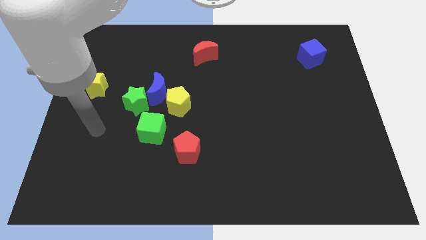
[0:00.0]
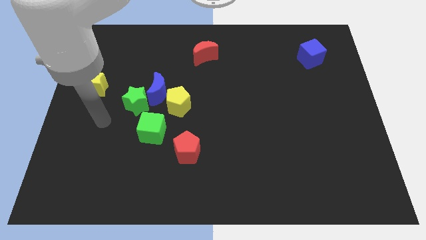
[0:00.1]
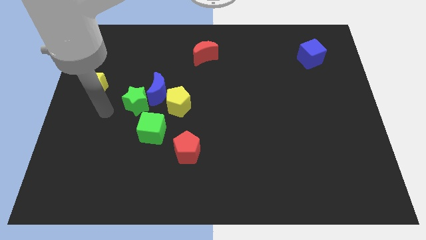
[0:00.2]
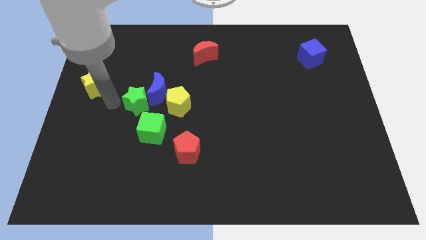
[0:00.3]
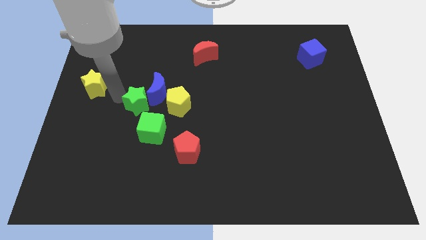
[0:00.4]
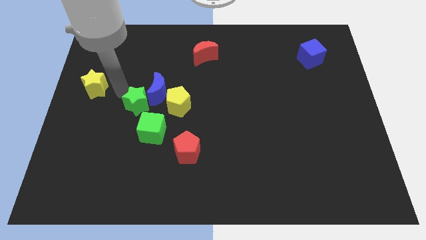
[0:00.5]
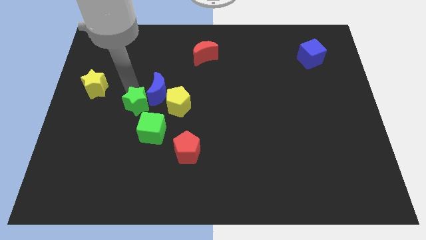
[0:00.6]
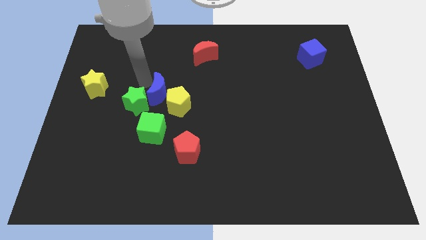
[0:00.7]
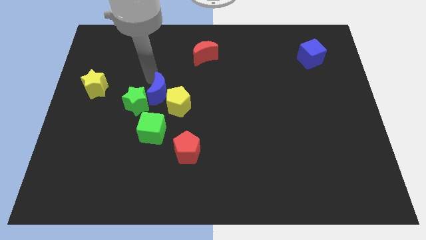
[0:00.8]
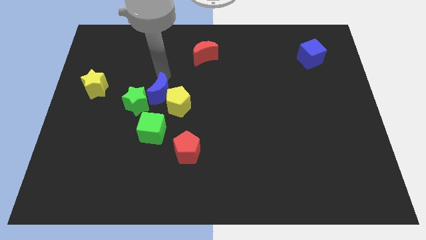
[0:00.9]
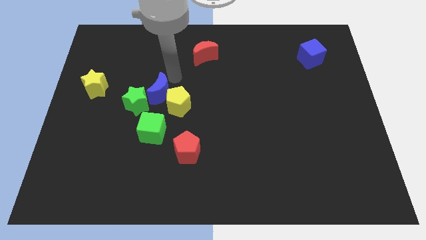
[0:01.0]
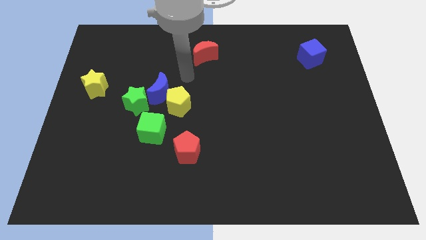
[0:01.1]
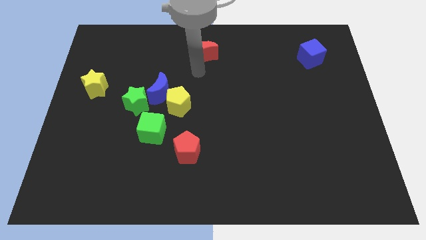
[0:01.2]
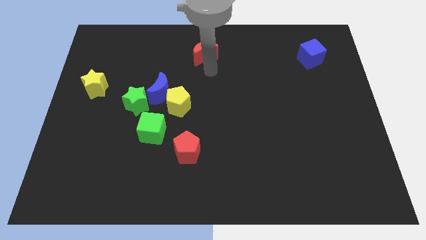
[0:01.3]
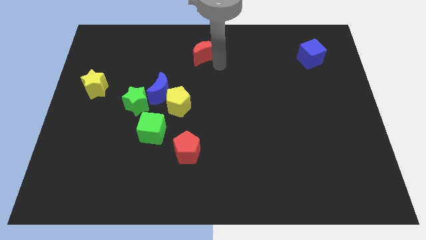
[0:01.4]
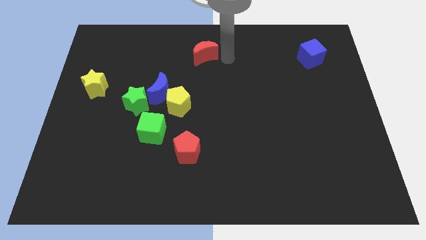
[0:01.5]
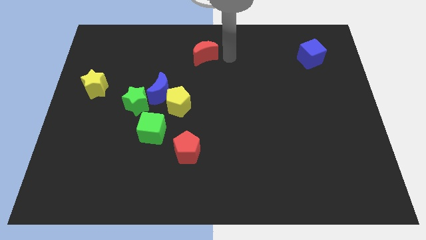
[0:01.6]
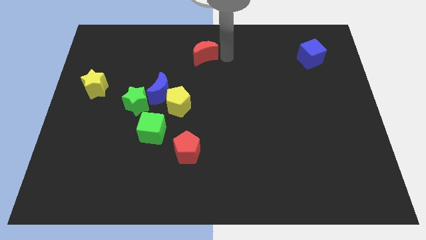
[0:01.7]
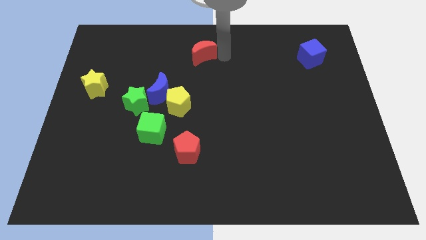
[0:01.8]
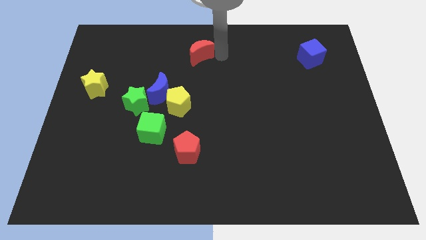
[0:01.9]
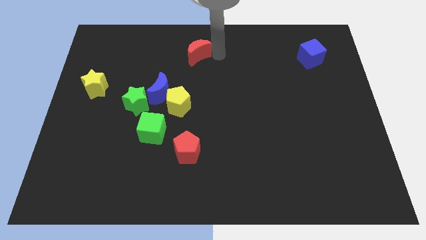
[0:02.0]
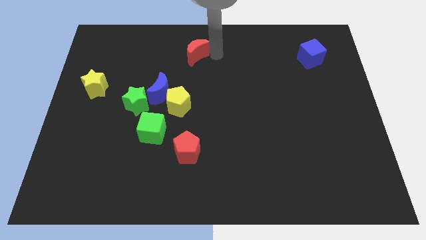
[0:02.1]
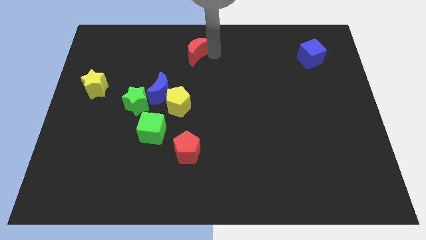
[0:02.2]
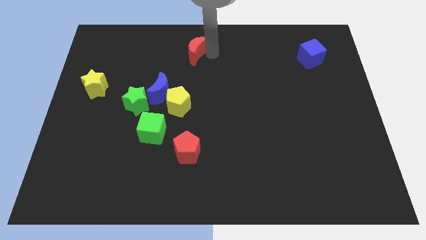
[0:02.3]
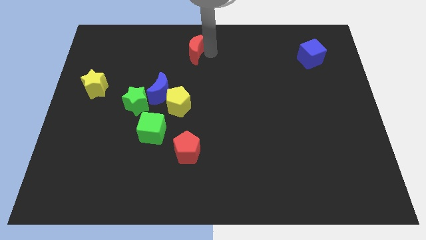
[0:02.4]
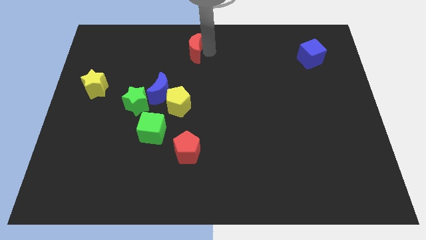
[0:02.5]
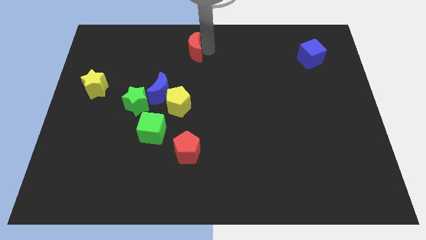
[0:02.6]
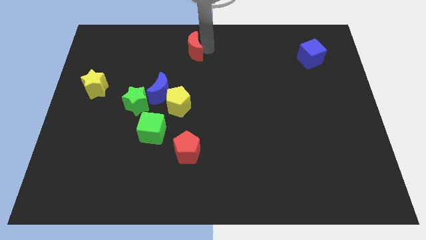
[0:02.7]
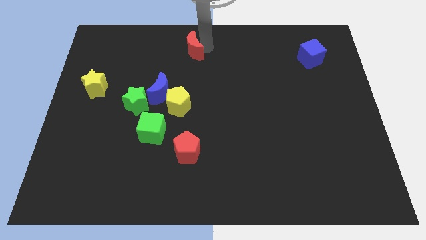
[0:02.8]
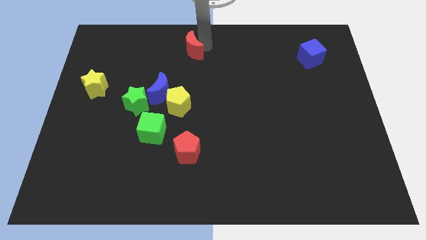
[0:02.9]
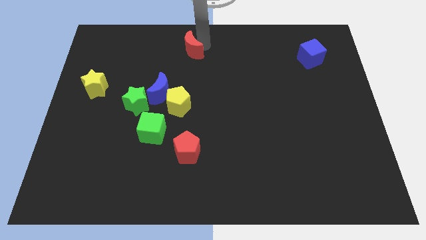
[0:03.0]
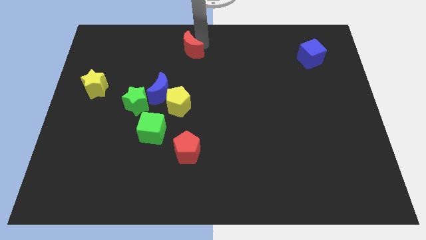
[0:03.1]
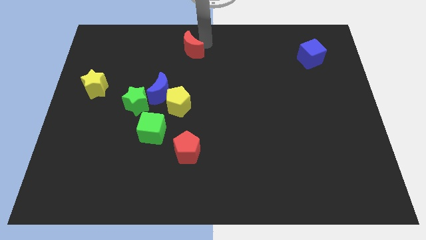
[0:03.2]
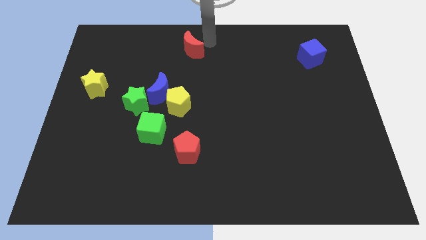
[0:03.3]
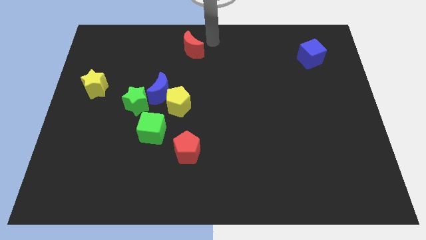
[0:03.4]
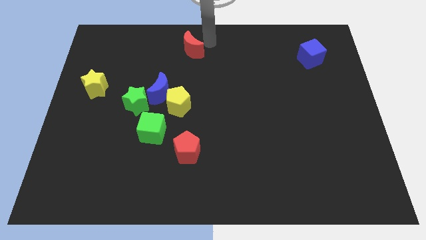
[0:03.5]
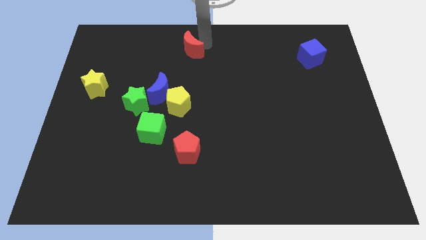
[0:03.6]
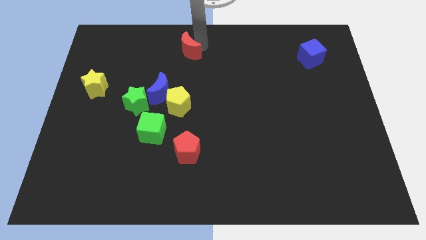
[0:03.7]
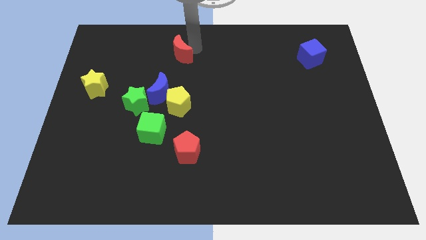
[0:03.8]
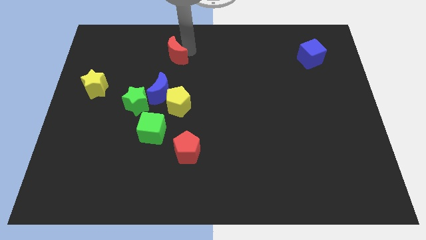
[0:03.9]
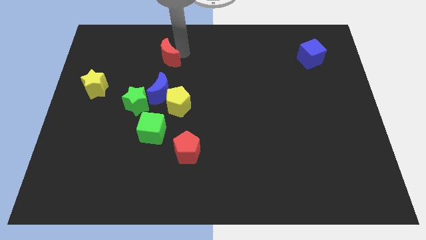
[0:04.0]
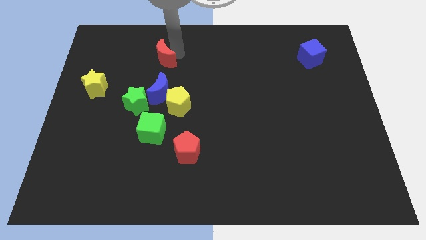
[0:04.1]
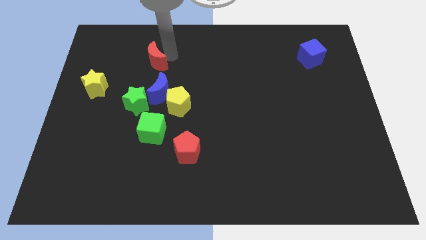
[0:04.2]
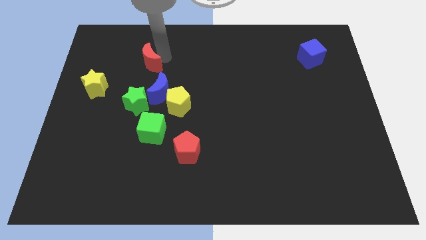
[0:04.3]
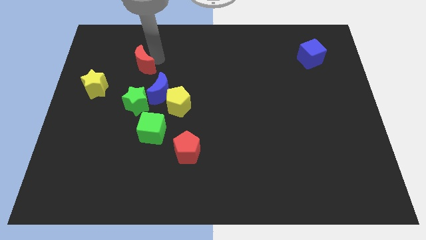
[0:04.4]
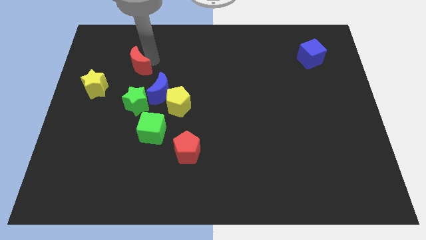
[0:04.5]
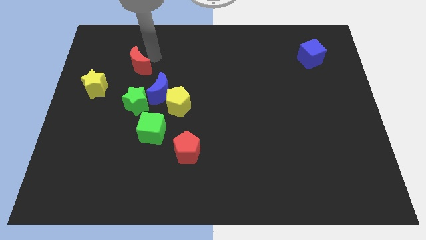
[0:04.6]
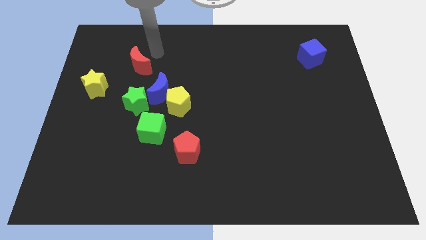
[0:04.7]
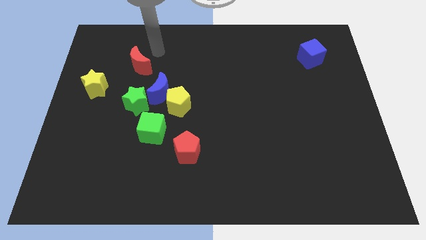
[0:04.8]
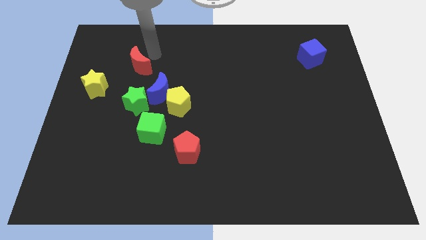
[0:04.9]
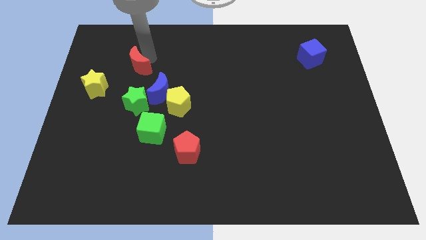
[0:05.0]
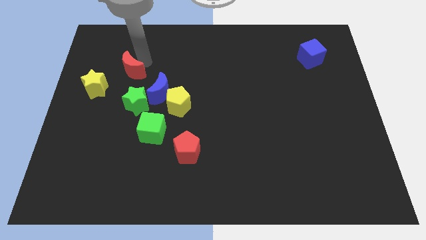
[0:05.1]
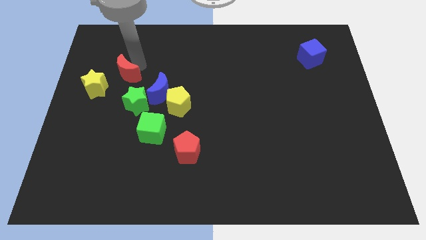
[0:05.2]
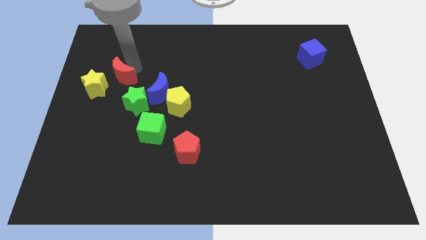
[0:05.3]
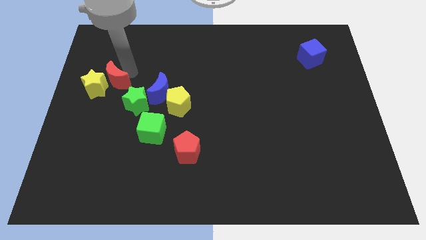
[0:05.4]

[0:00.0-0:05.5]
push the red moon close to the yellow star

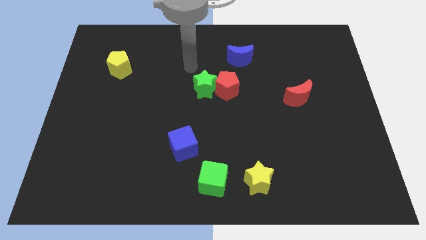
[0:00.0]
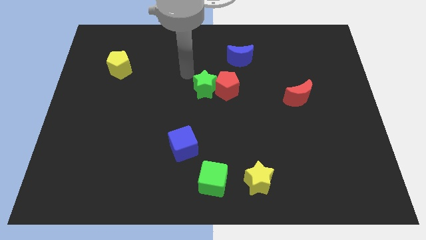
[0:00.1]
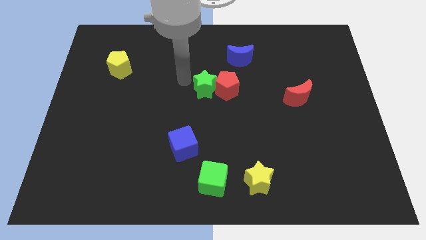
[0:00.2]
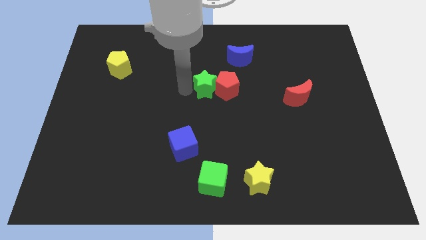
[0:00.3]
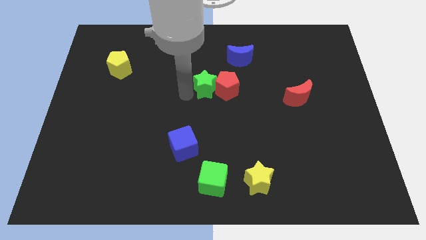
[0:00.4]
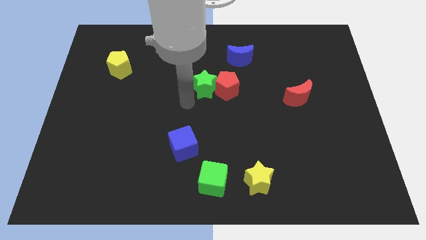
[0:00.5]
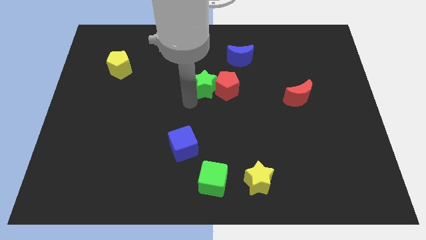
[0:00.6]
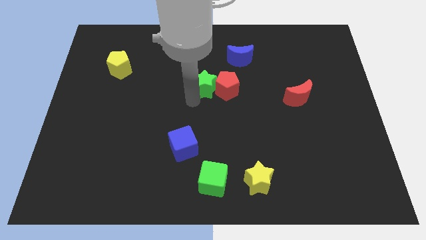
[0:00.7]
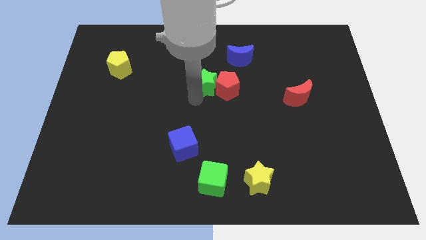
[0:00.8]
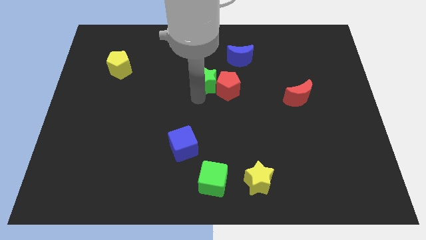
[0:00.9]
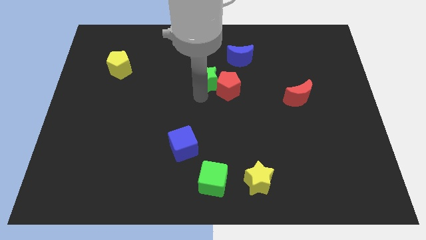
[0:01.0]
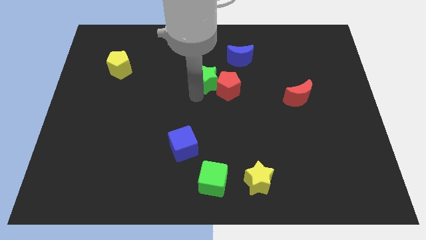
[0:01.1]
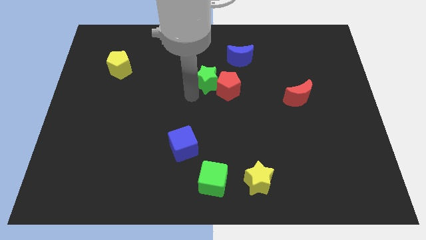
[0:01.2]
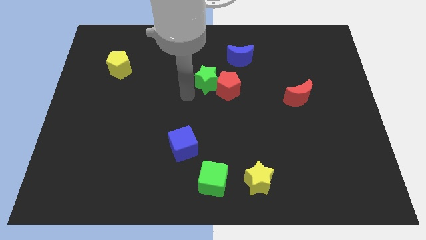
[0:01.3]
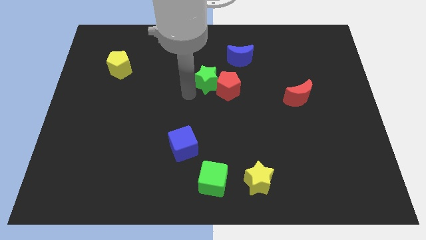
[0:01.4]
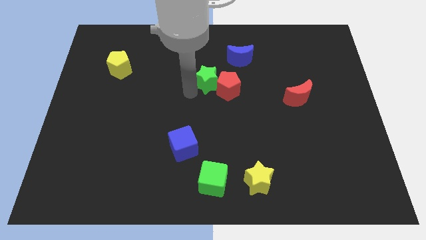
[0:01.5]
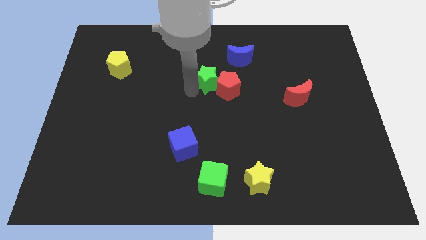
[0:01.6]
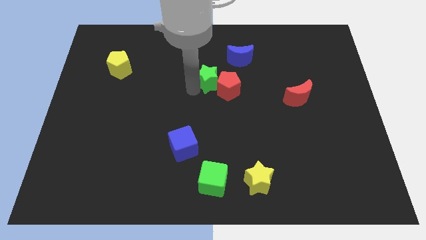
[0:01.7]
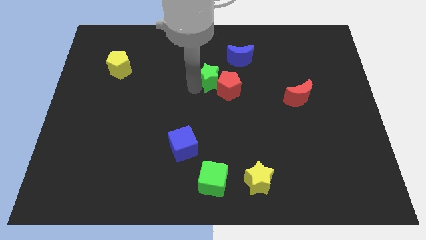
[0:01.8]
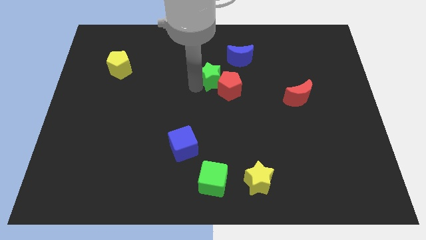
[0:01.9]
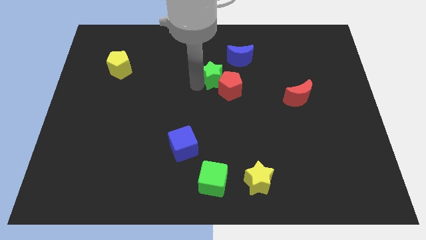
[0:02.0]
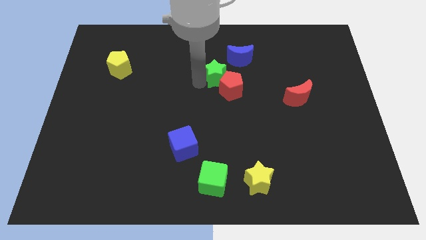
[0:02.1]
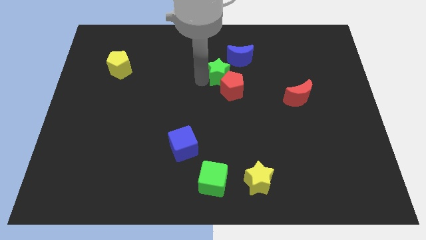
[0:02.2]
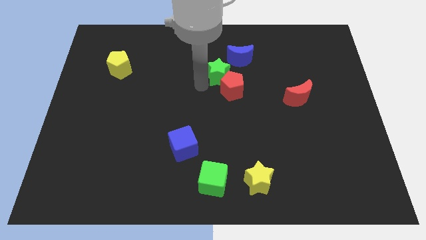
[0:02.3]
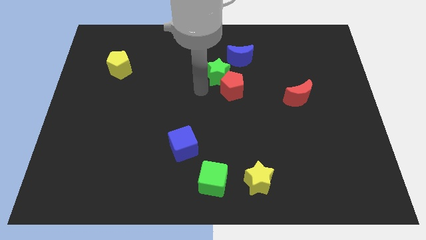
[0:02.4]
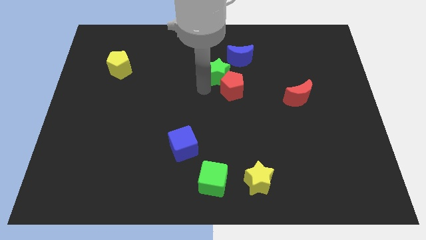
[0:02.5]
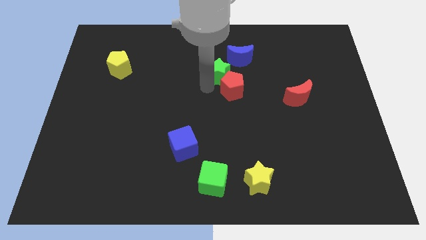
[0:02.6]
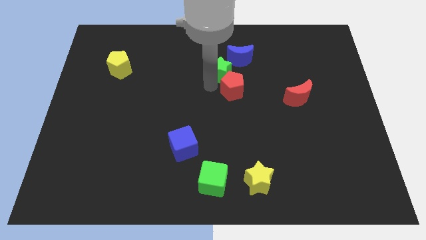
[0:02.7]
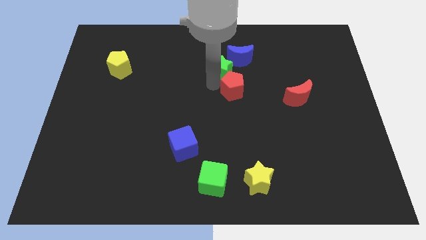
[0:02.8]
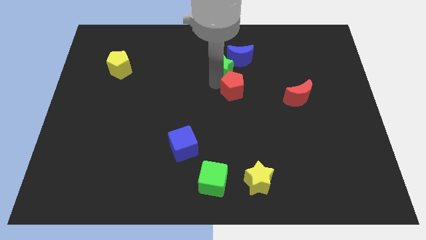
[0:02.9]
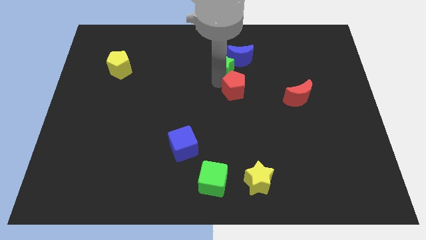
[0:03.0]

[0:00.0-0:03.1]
put the green star next to the blue moon
